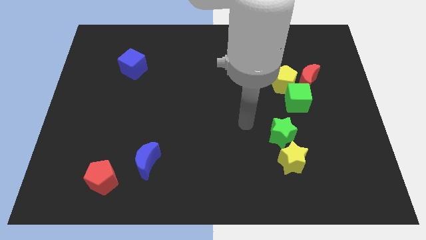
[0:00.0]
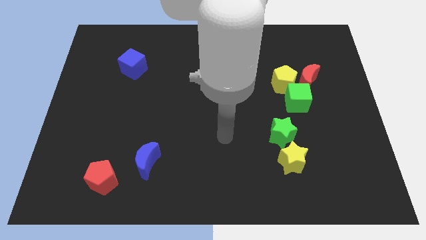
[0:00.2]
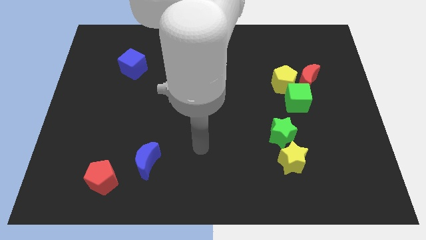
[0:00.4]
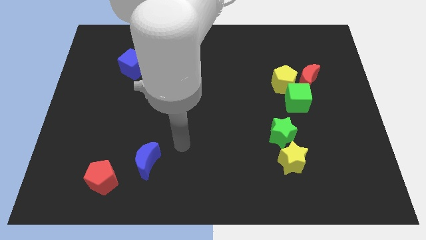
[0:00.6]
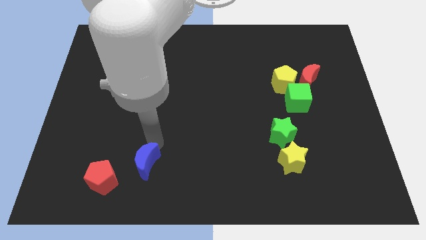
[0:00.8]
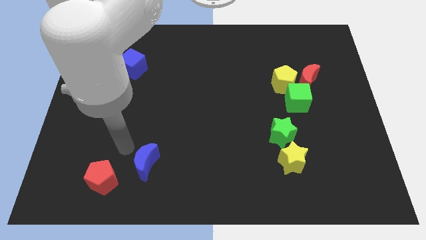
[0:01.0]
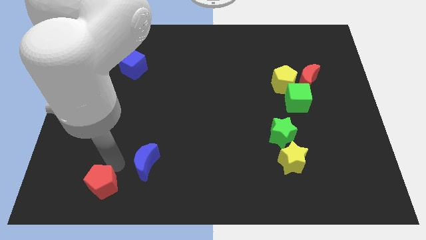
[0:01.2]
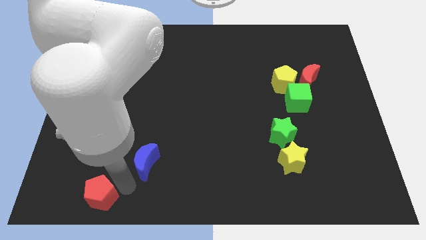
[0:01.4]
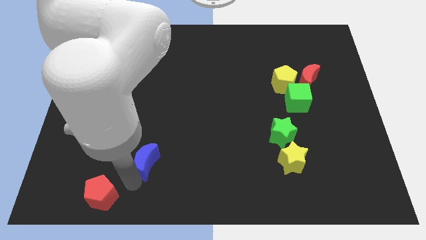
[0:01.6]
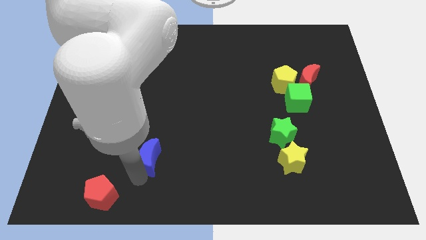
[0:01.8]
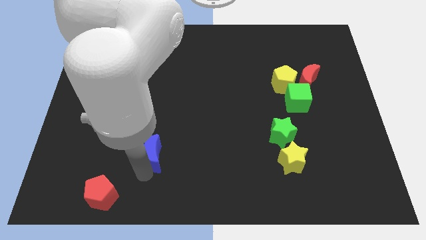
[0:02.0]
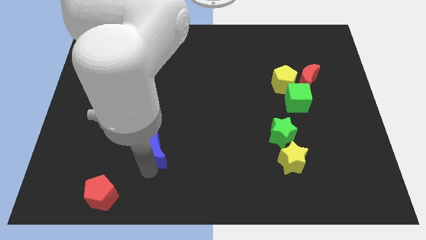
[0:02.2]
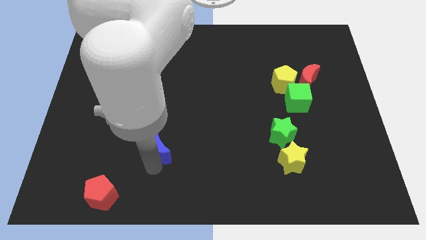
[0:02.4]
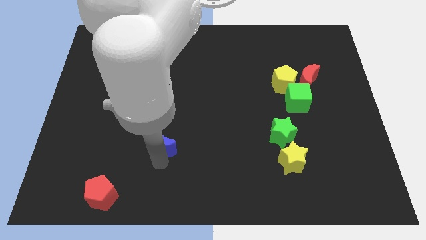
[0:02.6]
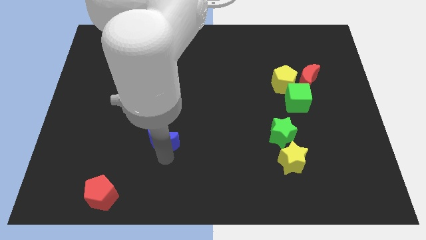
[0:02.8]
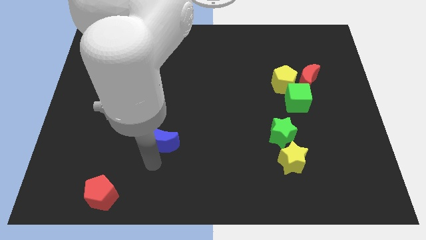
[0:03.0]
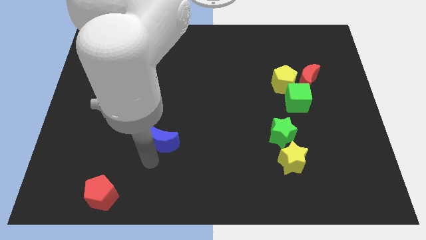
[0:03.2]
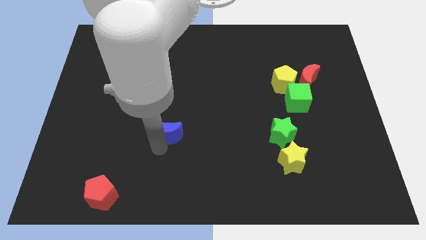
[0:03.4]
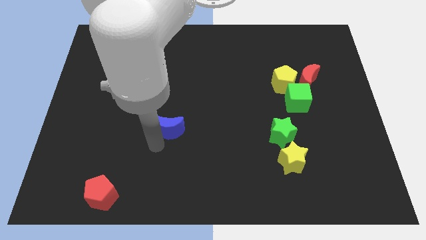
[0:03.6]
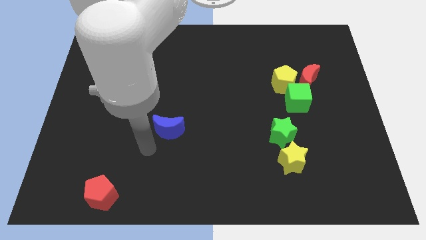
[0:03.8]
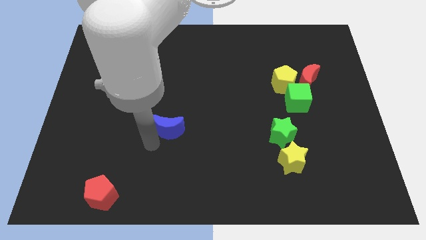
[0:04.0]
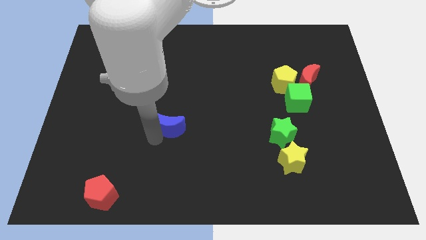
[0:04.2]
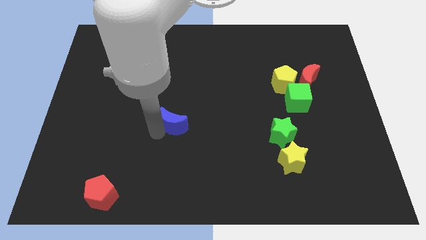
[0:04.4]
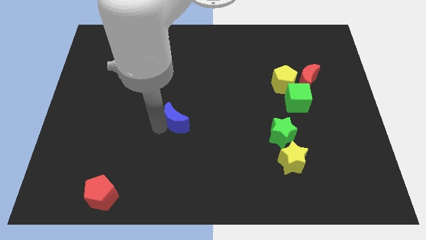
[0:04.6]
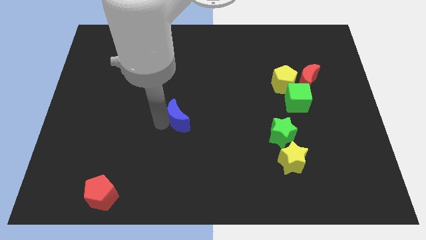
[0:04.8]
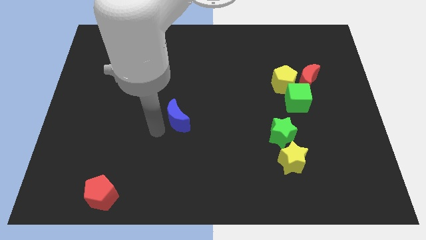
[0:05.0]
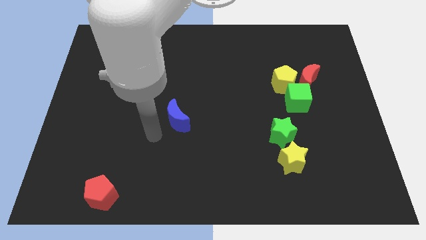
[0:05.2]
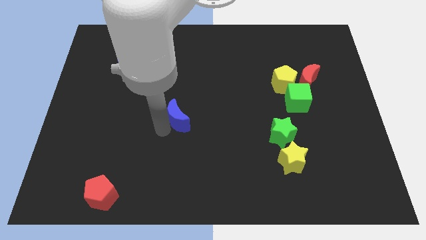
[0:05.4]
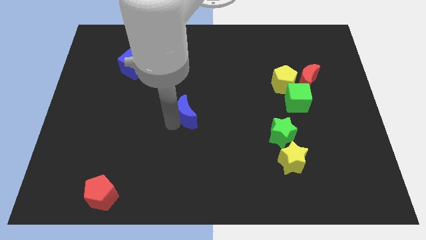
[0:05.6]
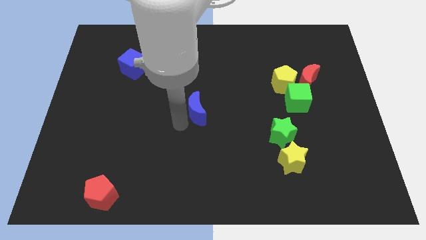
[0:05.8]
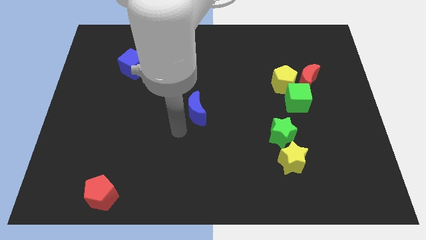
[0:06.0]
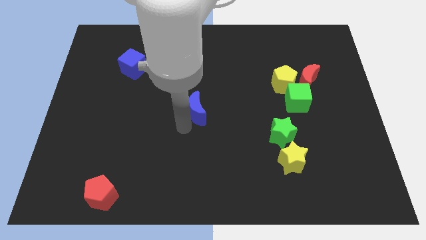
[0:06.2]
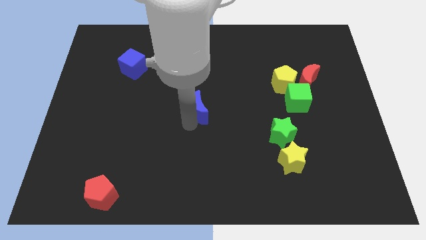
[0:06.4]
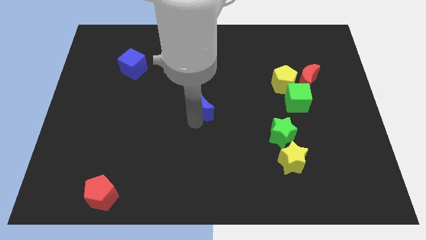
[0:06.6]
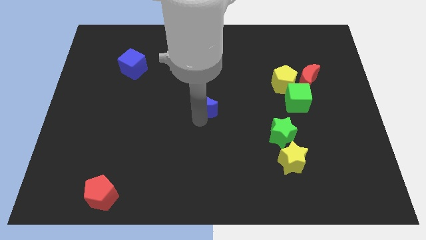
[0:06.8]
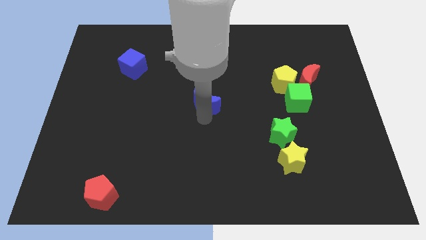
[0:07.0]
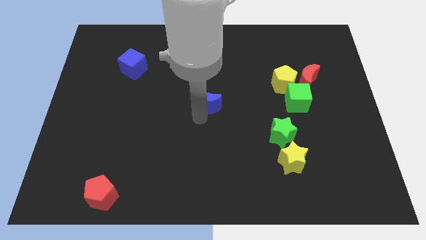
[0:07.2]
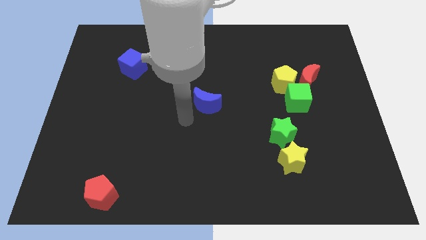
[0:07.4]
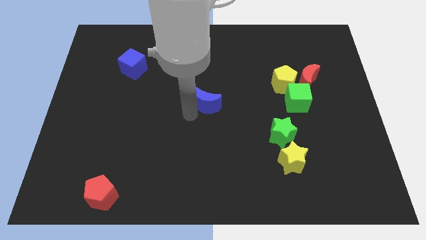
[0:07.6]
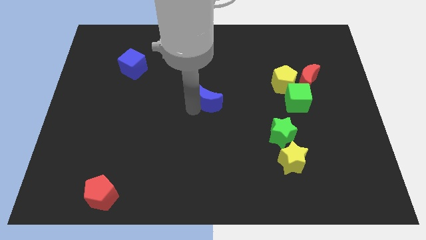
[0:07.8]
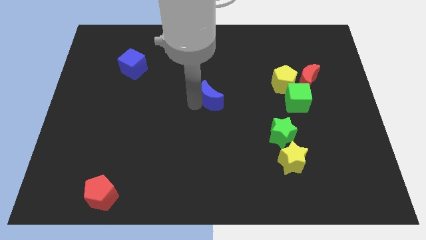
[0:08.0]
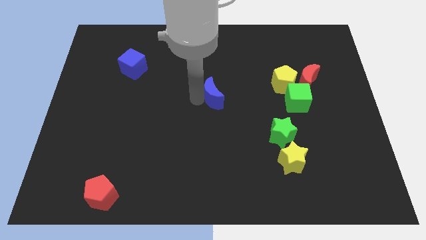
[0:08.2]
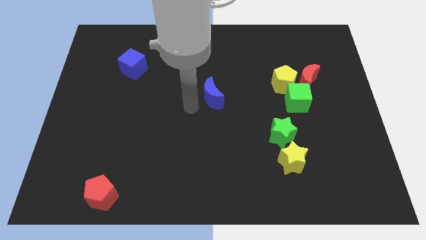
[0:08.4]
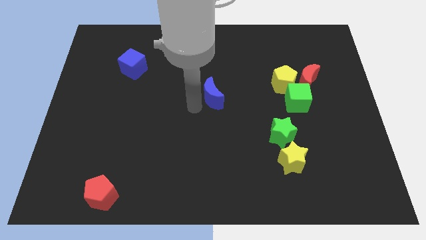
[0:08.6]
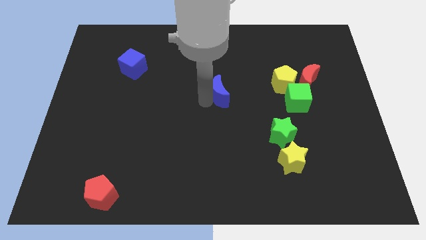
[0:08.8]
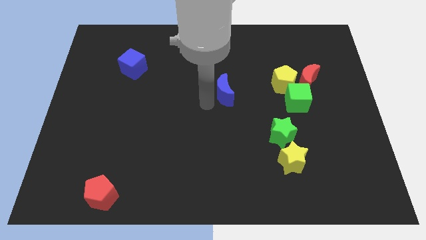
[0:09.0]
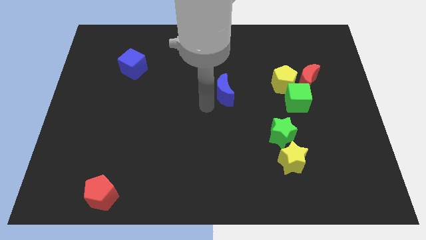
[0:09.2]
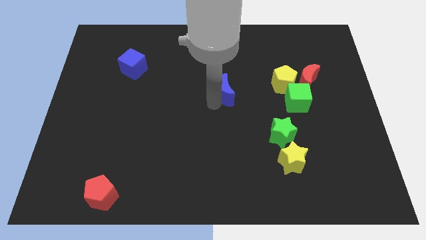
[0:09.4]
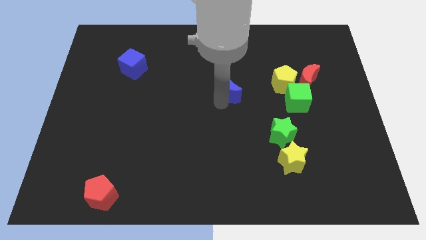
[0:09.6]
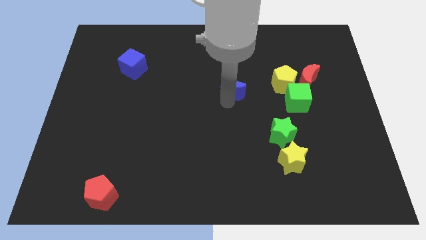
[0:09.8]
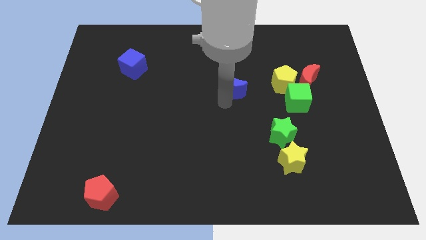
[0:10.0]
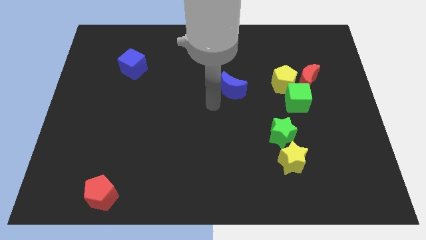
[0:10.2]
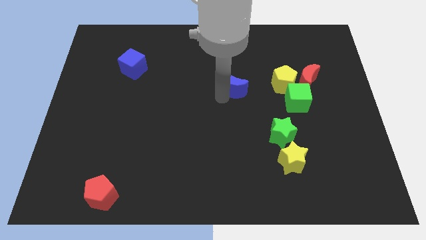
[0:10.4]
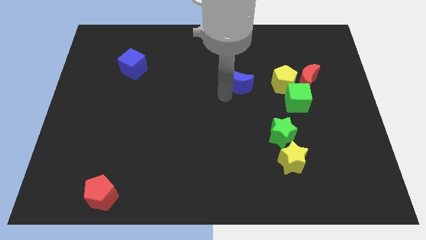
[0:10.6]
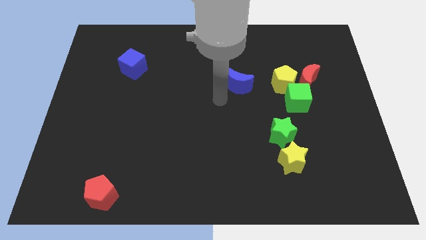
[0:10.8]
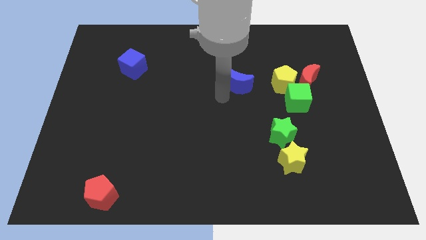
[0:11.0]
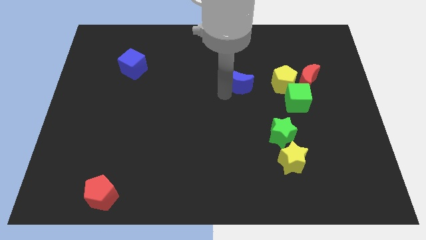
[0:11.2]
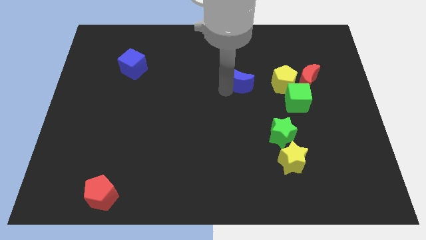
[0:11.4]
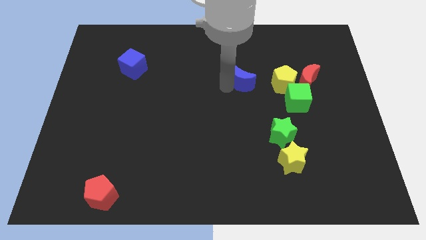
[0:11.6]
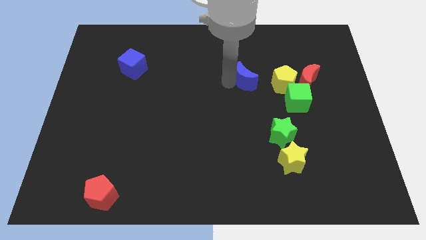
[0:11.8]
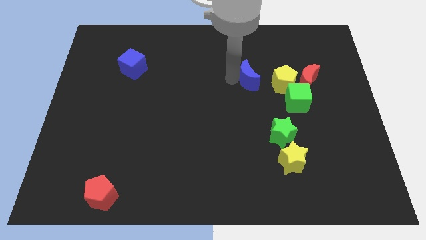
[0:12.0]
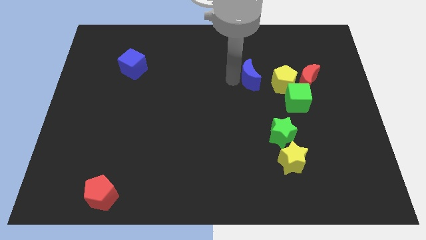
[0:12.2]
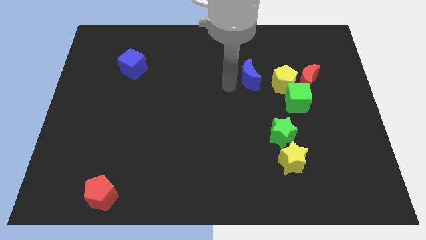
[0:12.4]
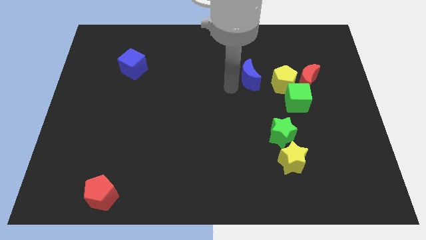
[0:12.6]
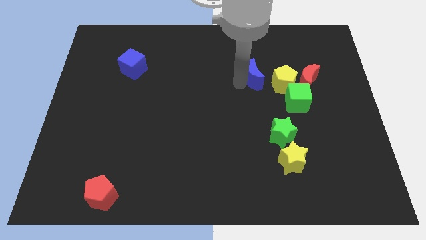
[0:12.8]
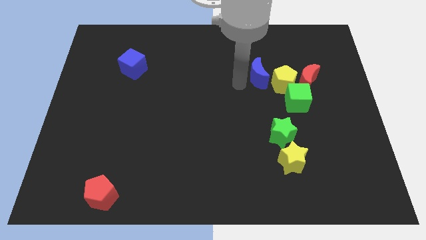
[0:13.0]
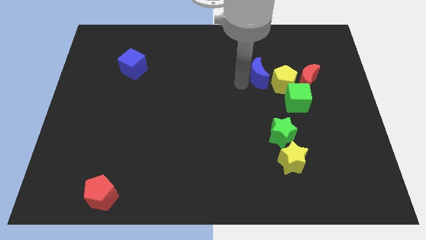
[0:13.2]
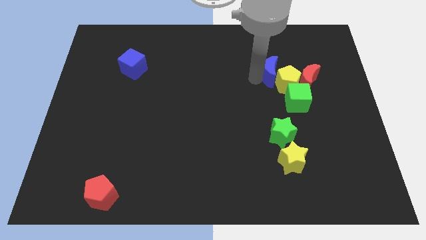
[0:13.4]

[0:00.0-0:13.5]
push the blue moon to the top left of the red moon

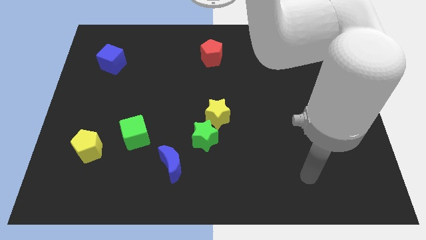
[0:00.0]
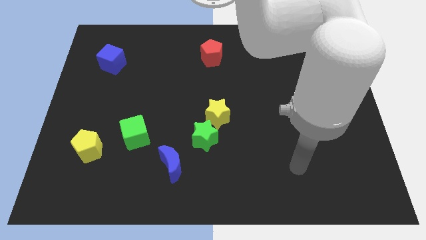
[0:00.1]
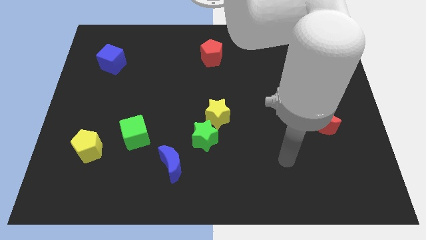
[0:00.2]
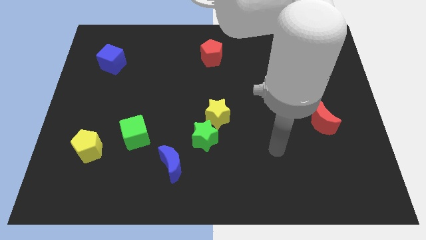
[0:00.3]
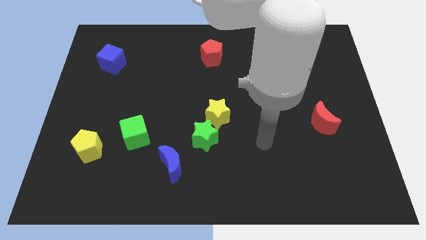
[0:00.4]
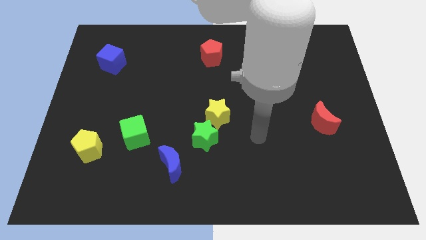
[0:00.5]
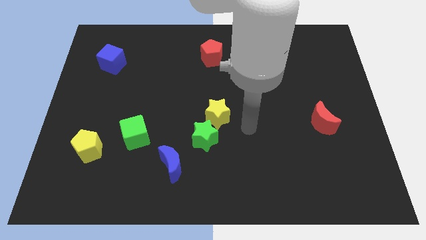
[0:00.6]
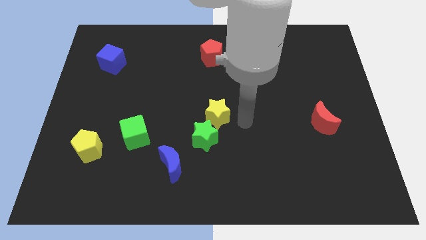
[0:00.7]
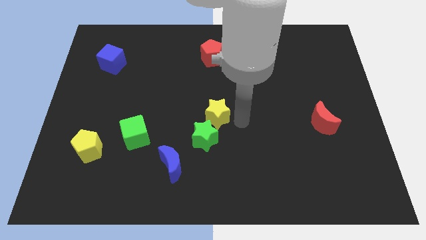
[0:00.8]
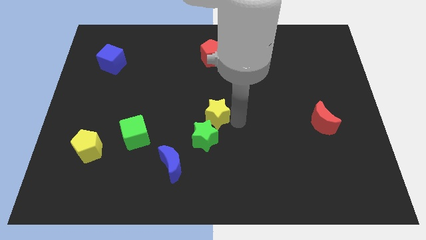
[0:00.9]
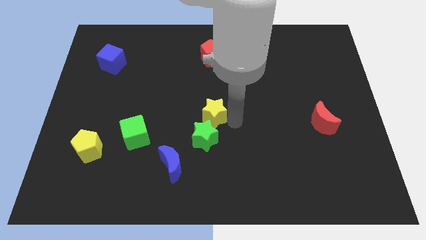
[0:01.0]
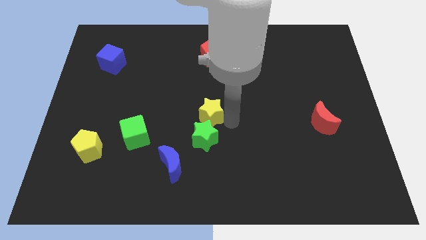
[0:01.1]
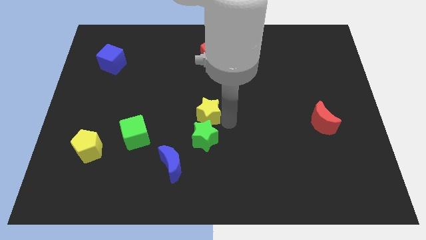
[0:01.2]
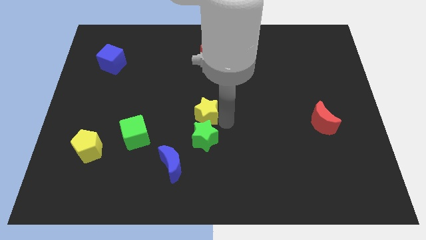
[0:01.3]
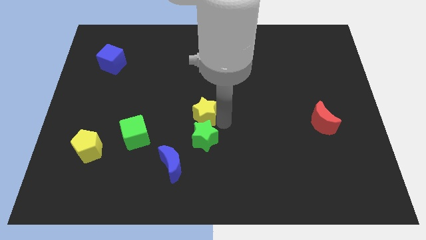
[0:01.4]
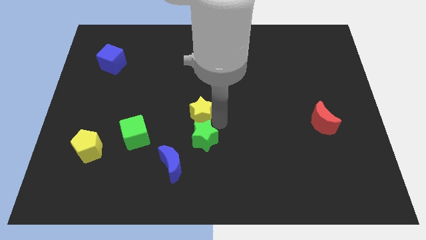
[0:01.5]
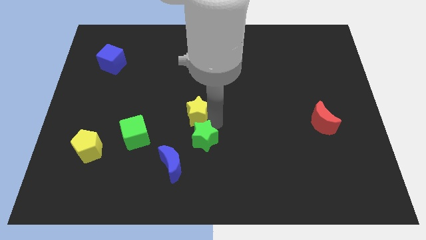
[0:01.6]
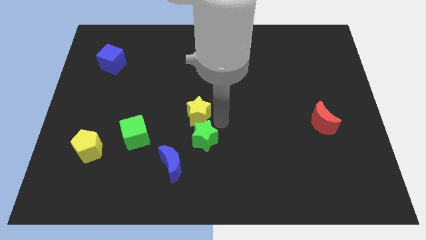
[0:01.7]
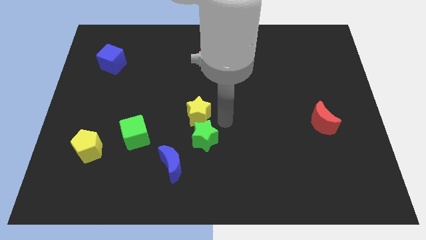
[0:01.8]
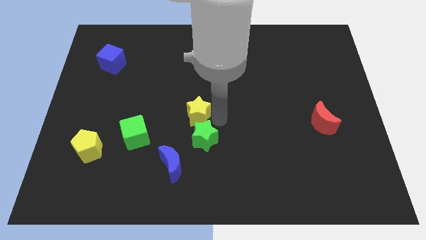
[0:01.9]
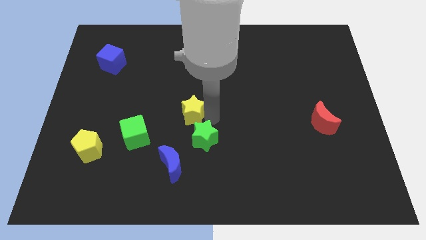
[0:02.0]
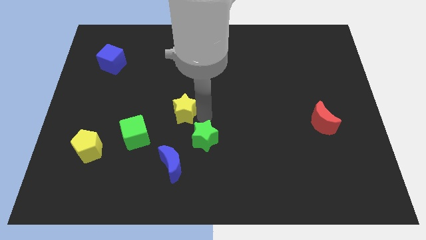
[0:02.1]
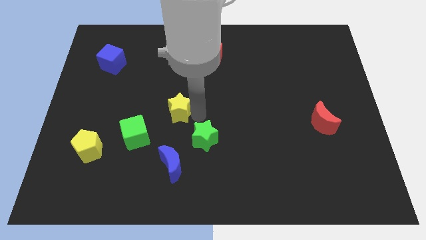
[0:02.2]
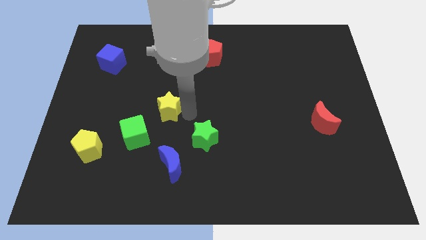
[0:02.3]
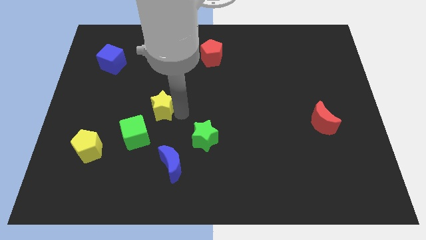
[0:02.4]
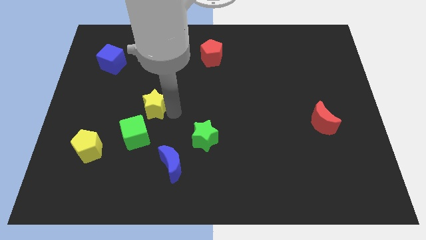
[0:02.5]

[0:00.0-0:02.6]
move the yellow star to the top side of the green cube
